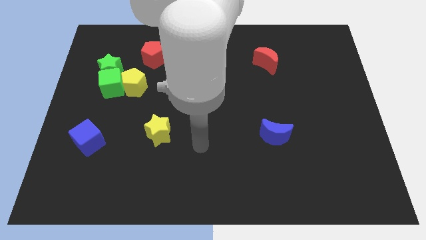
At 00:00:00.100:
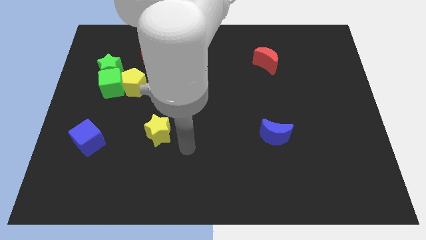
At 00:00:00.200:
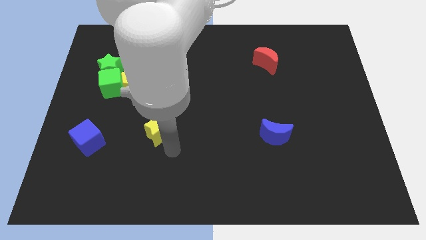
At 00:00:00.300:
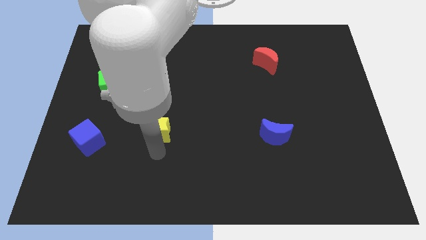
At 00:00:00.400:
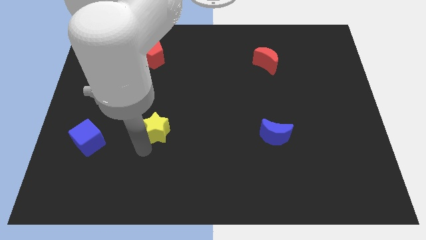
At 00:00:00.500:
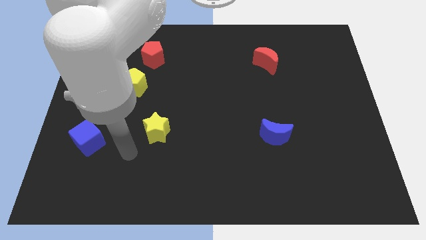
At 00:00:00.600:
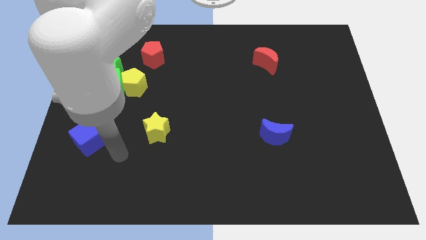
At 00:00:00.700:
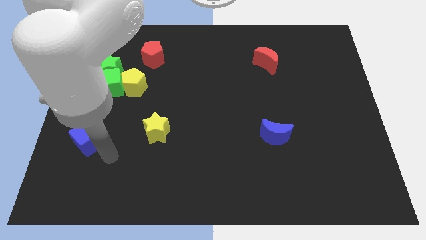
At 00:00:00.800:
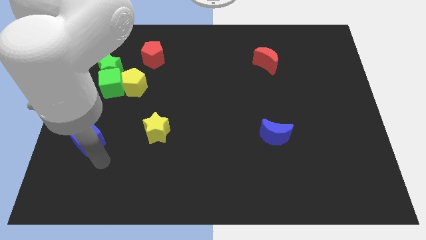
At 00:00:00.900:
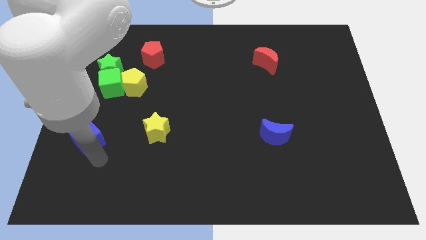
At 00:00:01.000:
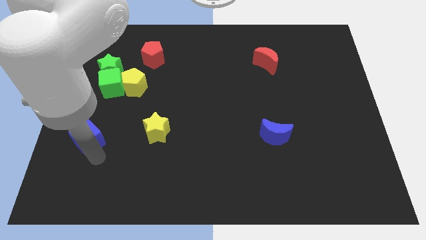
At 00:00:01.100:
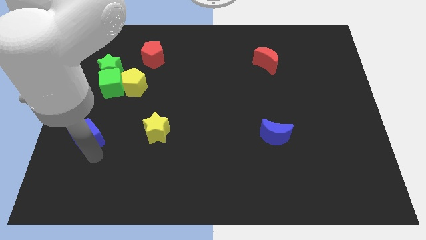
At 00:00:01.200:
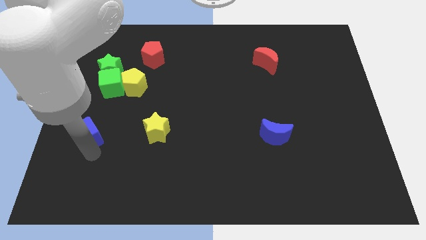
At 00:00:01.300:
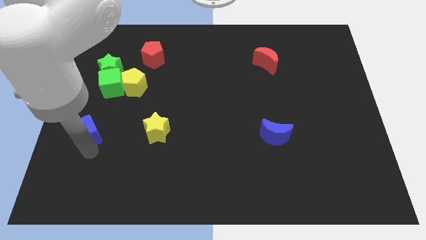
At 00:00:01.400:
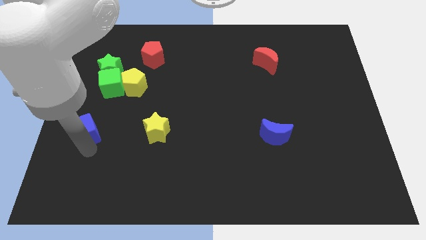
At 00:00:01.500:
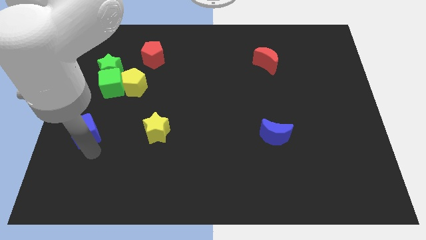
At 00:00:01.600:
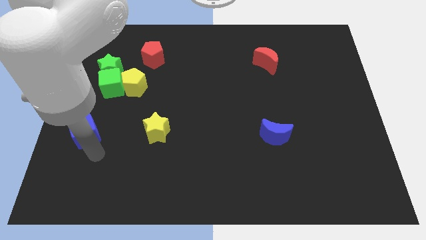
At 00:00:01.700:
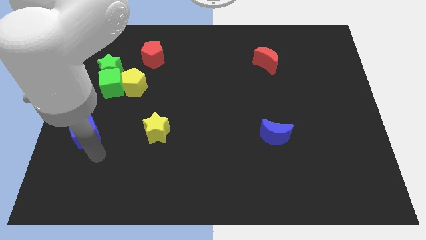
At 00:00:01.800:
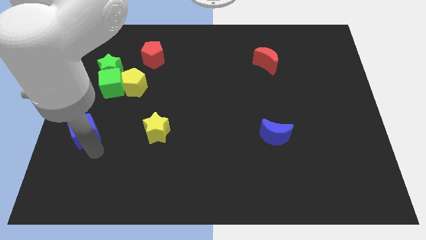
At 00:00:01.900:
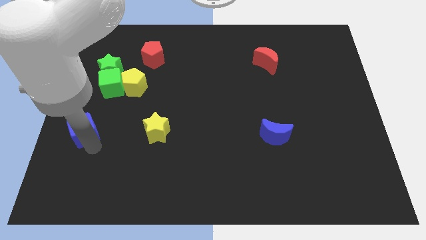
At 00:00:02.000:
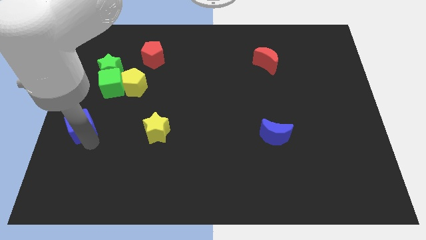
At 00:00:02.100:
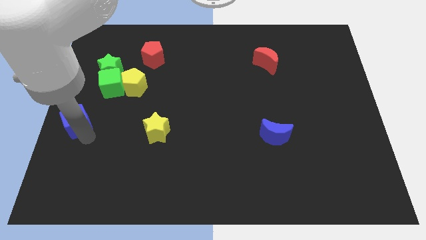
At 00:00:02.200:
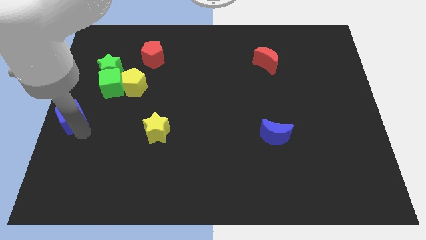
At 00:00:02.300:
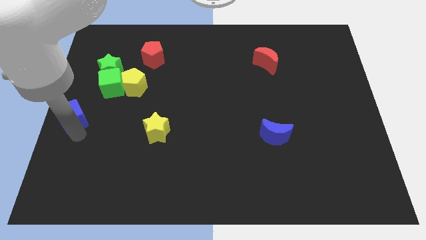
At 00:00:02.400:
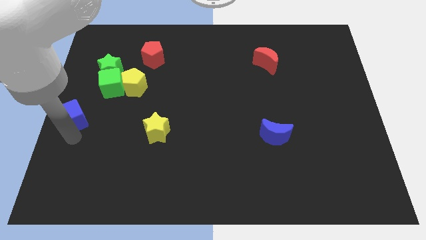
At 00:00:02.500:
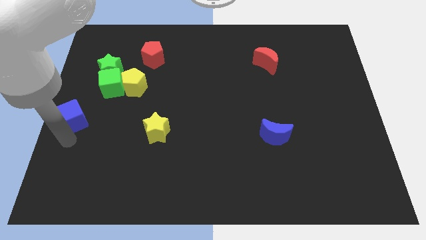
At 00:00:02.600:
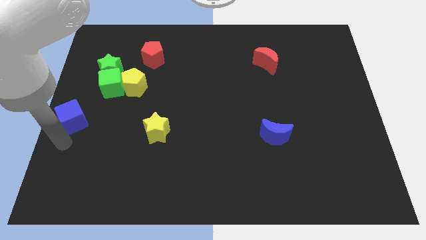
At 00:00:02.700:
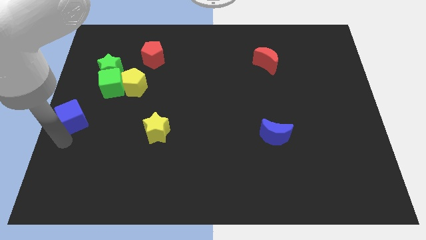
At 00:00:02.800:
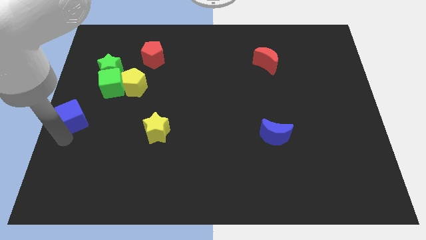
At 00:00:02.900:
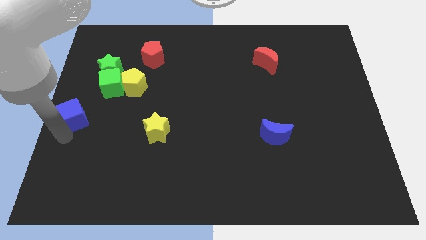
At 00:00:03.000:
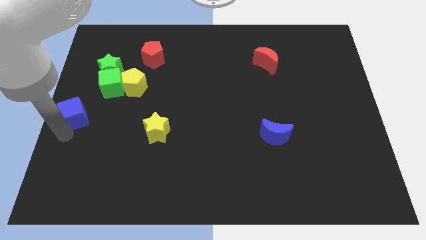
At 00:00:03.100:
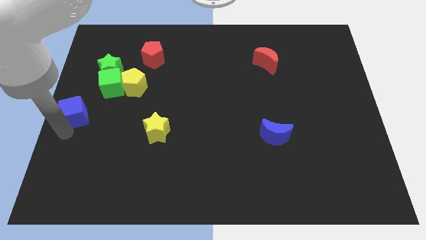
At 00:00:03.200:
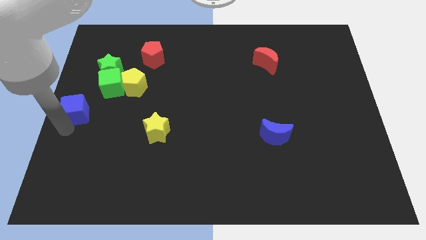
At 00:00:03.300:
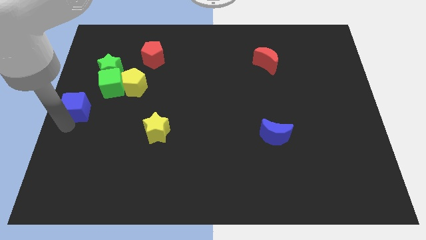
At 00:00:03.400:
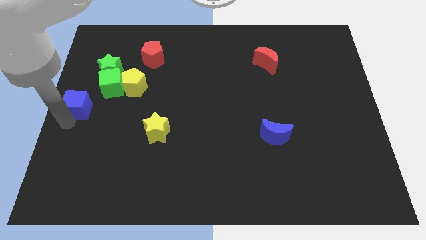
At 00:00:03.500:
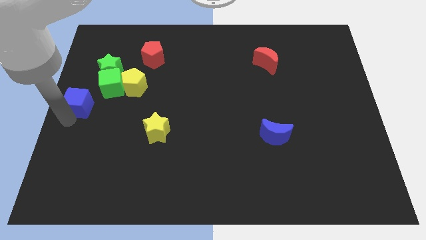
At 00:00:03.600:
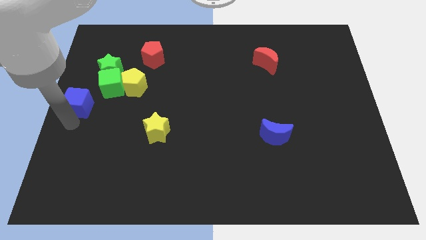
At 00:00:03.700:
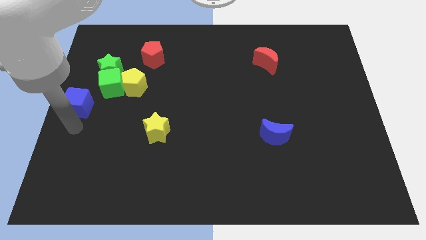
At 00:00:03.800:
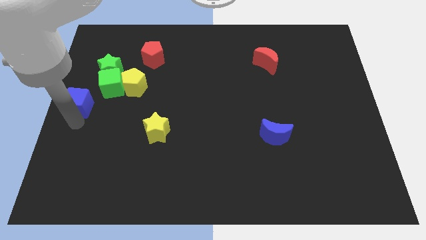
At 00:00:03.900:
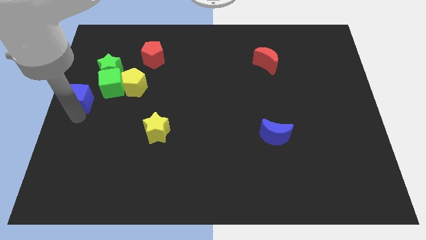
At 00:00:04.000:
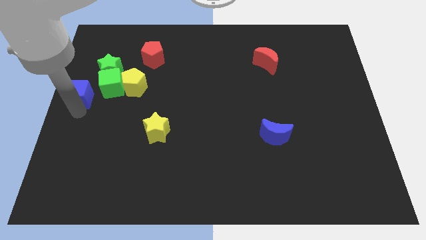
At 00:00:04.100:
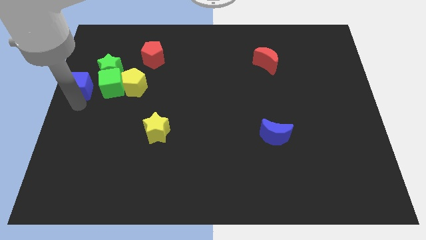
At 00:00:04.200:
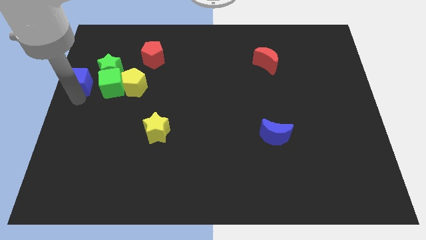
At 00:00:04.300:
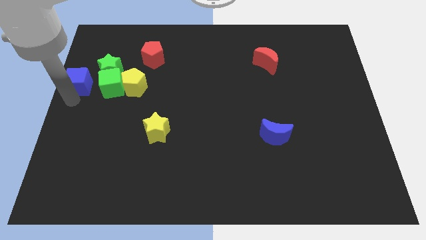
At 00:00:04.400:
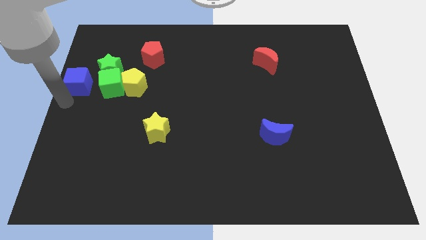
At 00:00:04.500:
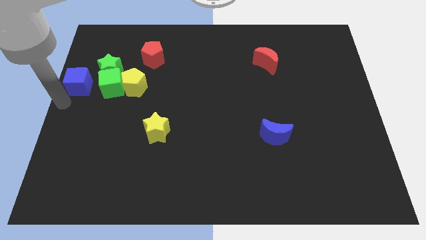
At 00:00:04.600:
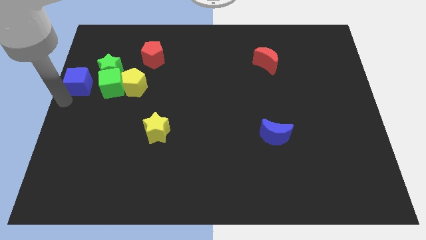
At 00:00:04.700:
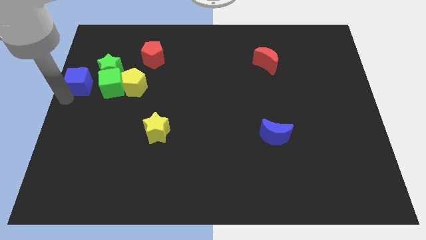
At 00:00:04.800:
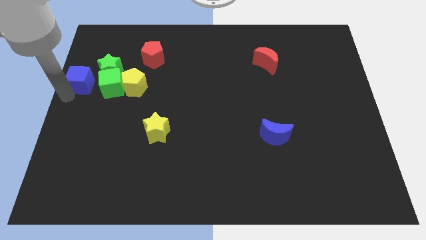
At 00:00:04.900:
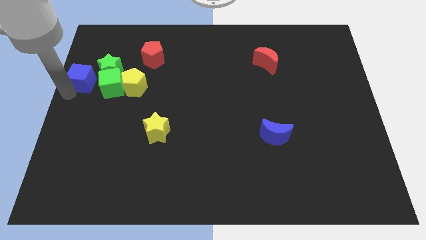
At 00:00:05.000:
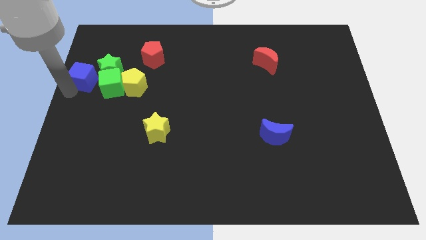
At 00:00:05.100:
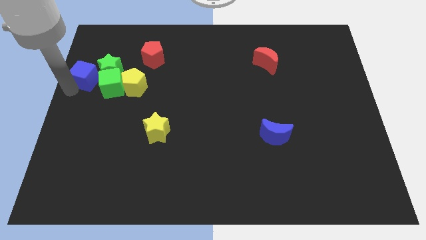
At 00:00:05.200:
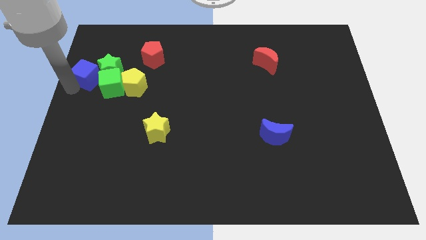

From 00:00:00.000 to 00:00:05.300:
slide the blue cube to the green star

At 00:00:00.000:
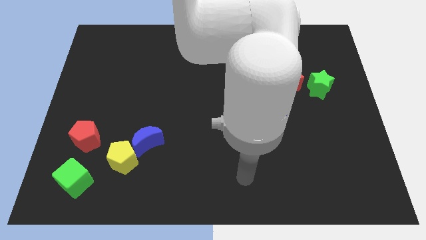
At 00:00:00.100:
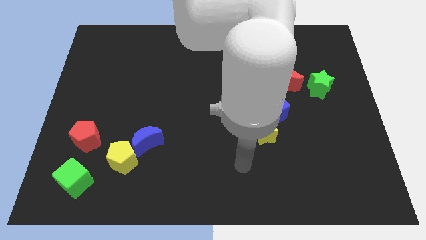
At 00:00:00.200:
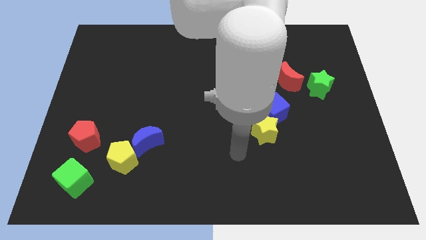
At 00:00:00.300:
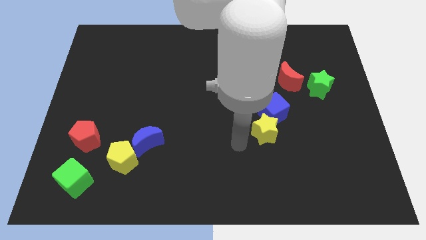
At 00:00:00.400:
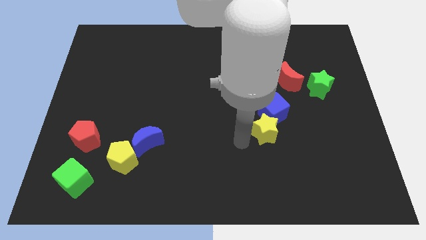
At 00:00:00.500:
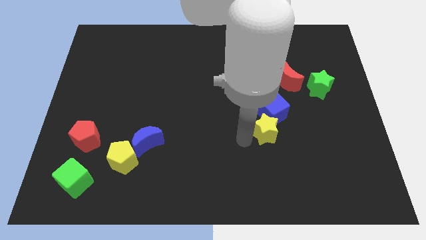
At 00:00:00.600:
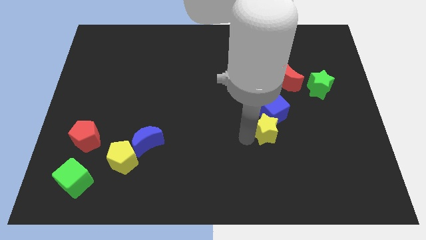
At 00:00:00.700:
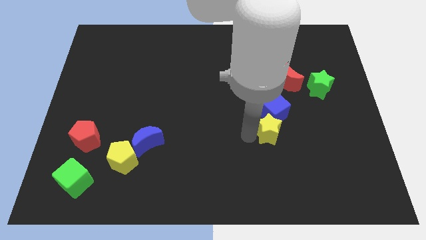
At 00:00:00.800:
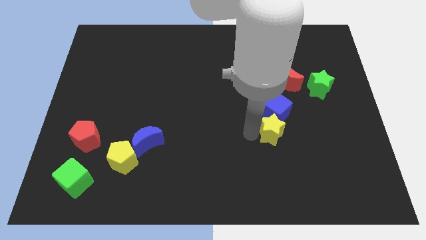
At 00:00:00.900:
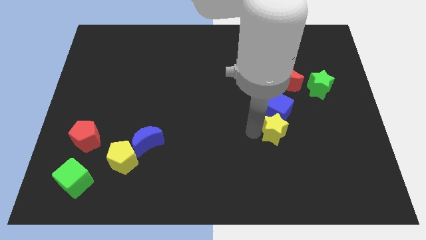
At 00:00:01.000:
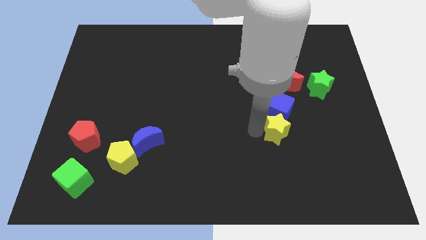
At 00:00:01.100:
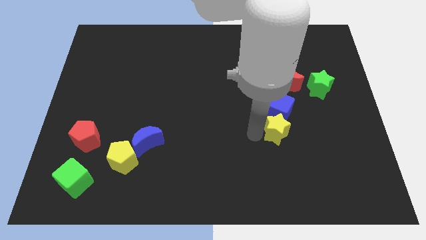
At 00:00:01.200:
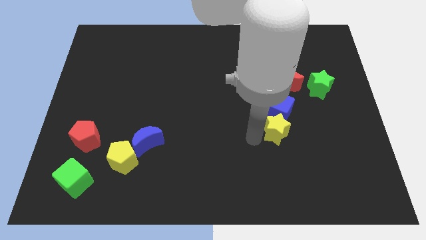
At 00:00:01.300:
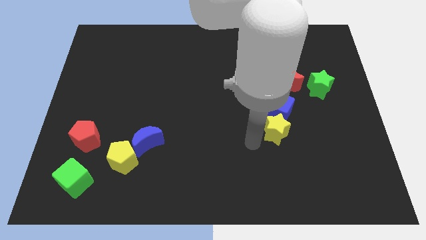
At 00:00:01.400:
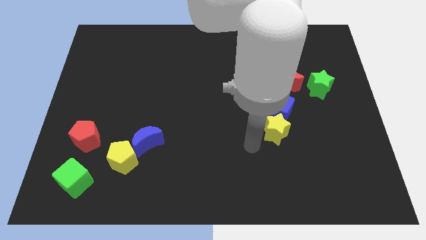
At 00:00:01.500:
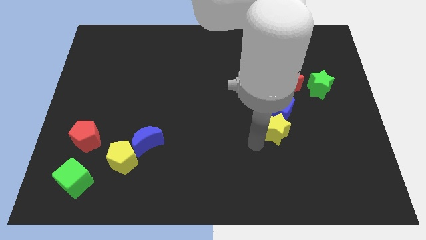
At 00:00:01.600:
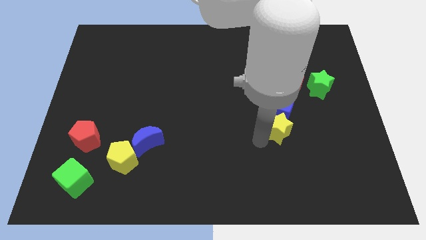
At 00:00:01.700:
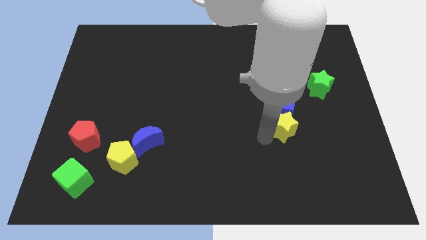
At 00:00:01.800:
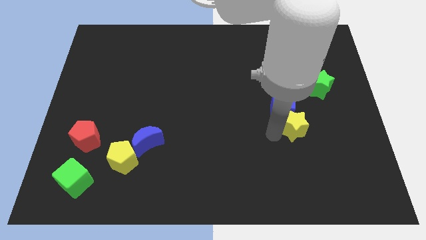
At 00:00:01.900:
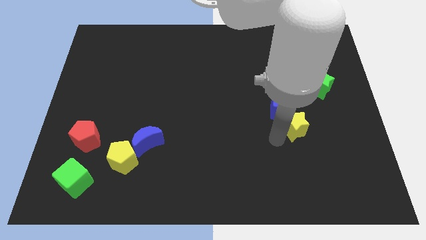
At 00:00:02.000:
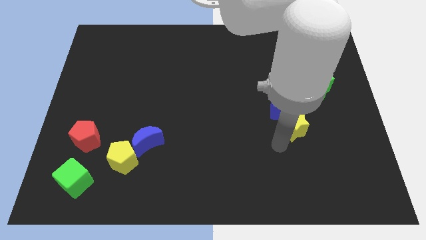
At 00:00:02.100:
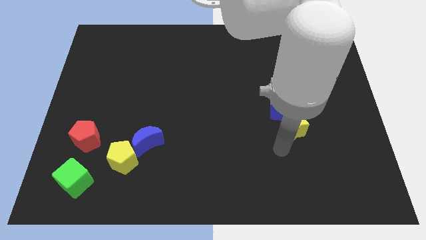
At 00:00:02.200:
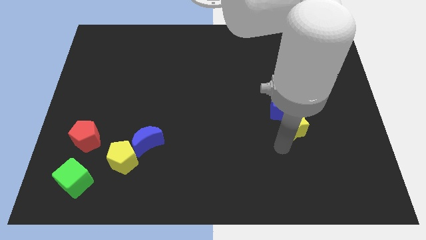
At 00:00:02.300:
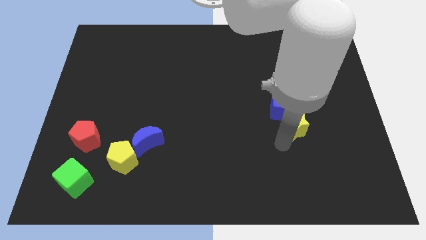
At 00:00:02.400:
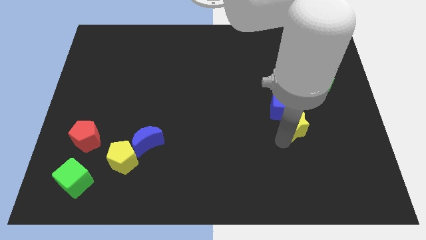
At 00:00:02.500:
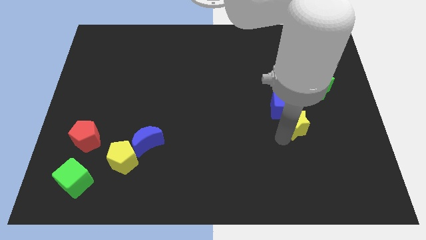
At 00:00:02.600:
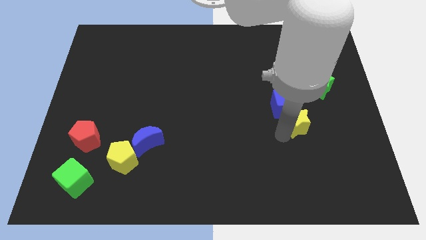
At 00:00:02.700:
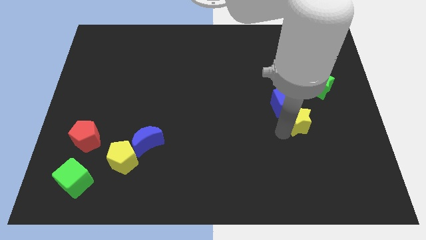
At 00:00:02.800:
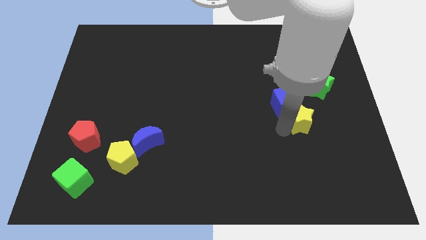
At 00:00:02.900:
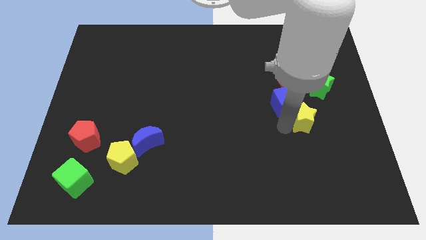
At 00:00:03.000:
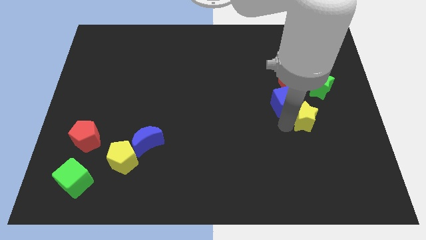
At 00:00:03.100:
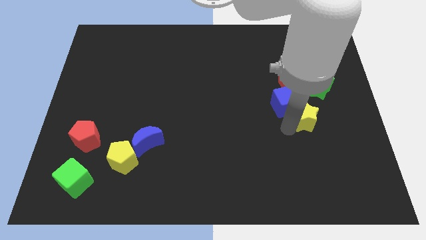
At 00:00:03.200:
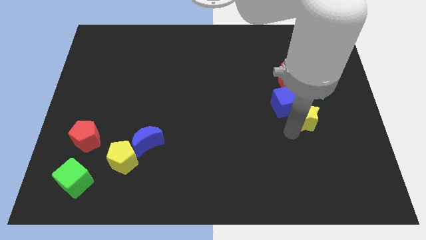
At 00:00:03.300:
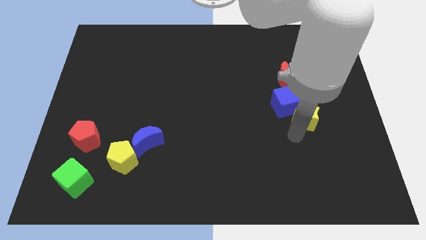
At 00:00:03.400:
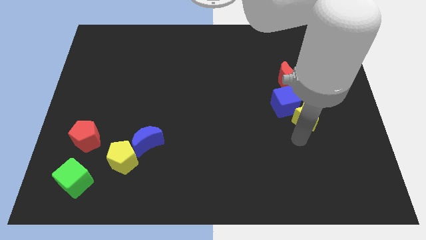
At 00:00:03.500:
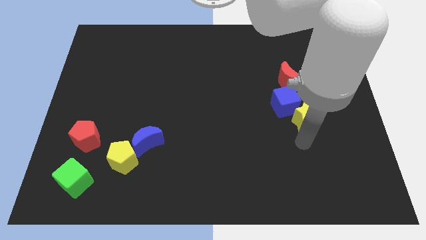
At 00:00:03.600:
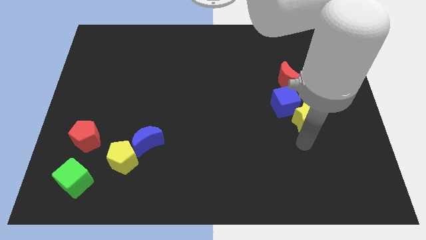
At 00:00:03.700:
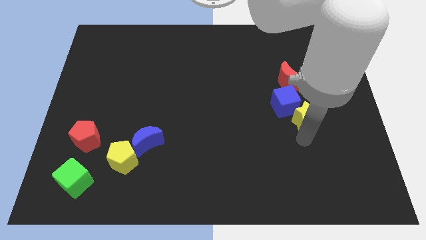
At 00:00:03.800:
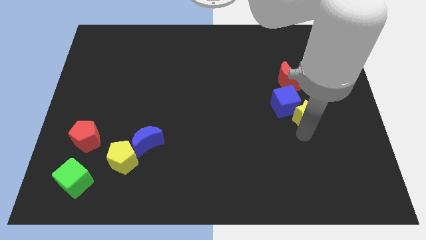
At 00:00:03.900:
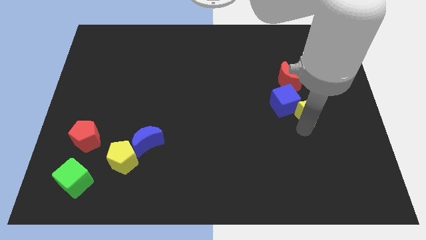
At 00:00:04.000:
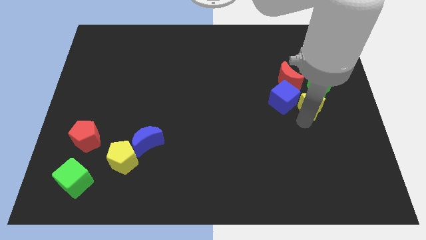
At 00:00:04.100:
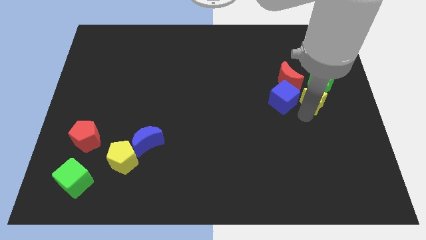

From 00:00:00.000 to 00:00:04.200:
put the yellow star to the green star
